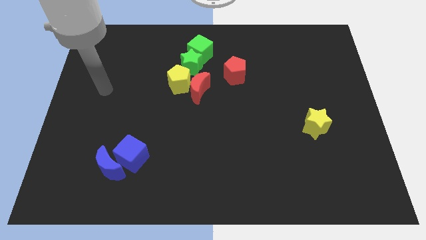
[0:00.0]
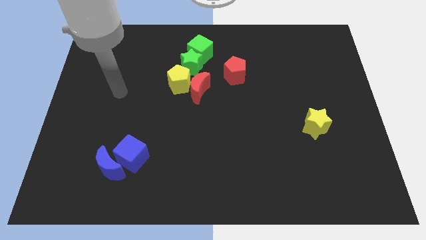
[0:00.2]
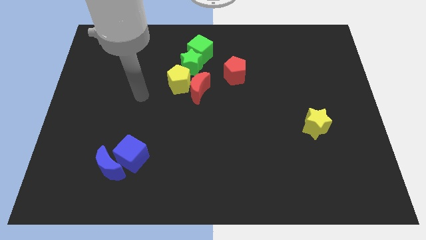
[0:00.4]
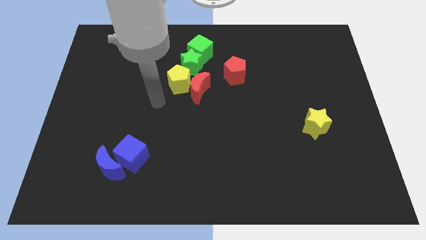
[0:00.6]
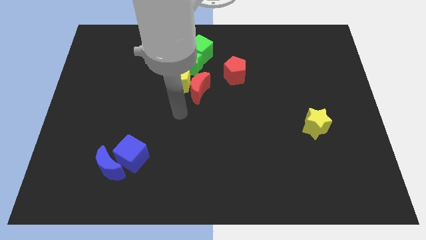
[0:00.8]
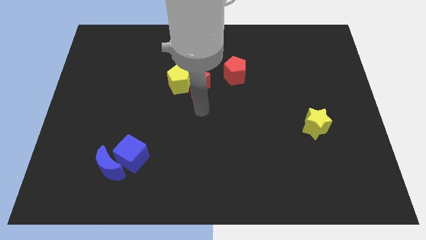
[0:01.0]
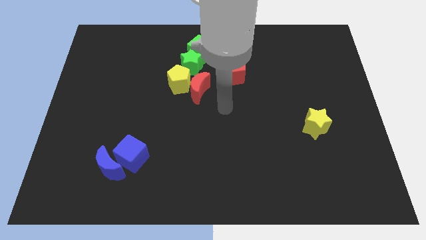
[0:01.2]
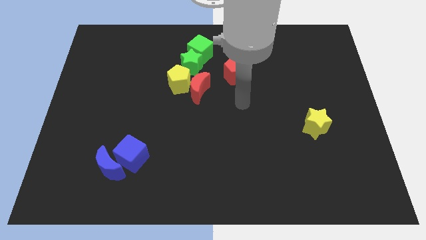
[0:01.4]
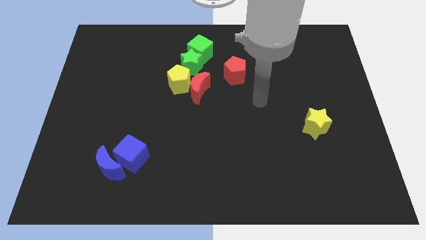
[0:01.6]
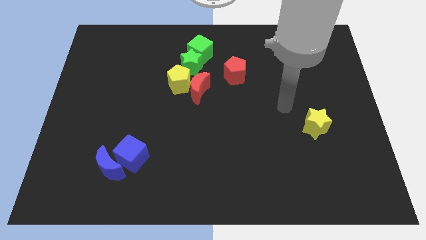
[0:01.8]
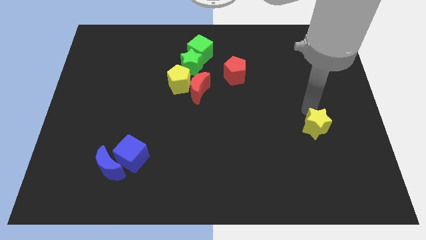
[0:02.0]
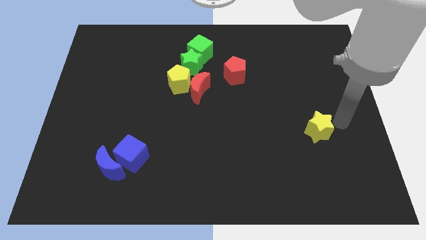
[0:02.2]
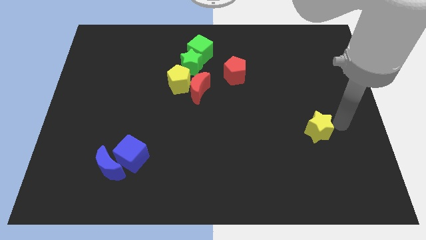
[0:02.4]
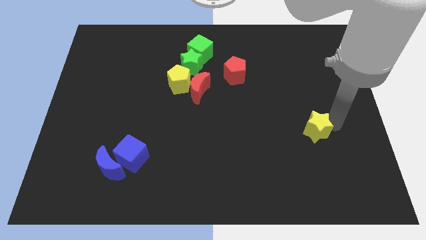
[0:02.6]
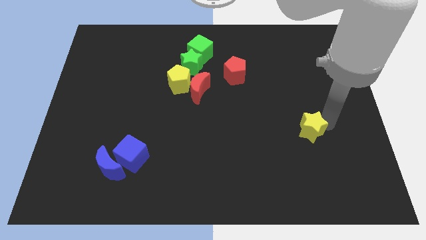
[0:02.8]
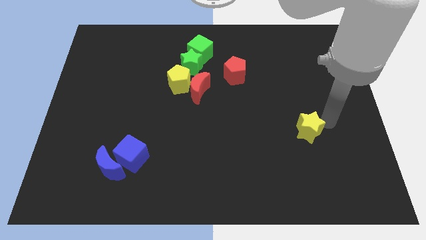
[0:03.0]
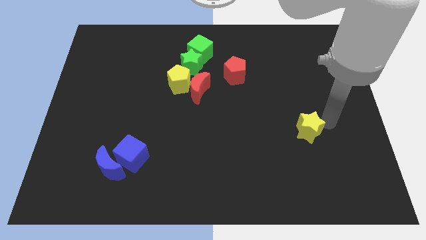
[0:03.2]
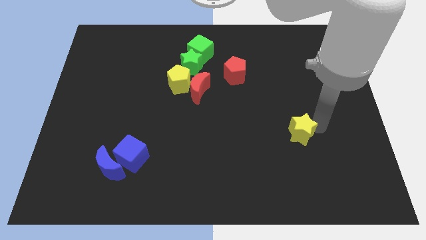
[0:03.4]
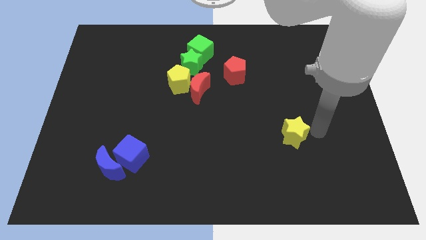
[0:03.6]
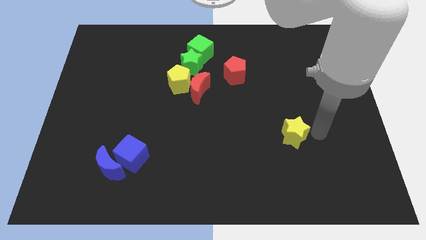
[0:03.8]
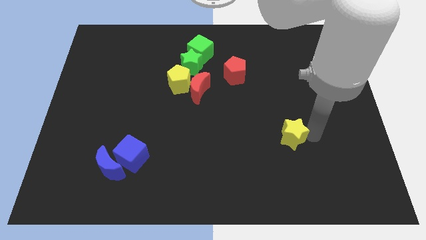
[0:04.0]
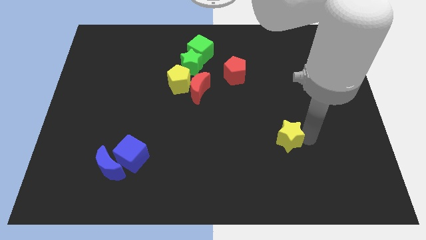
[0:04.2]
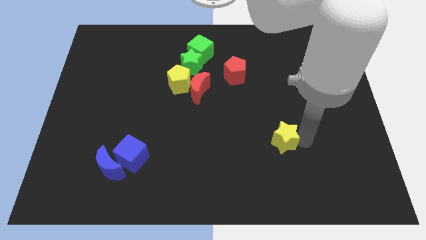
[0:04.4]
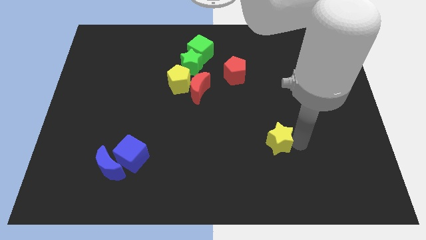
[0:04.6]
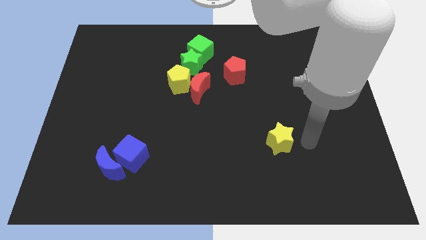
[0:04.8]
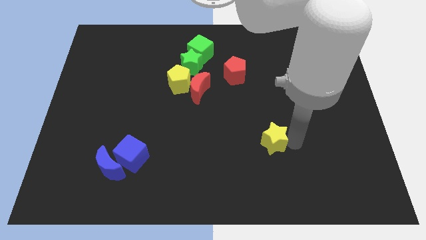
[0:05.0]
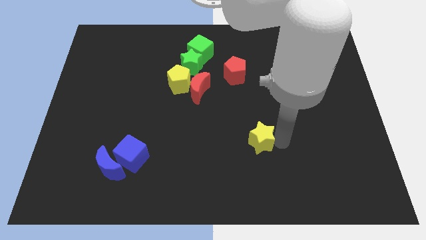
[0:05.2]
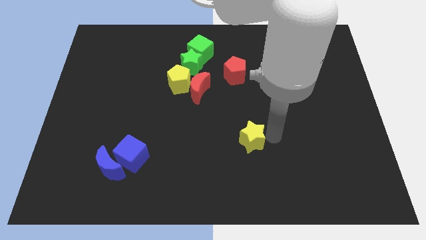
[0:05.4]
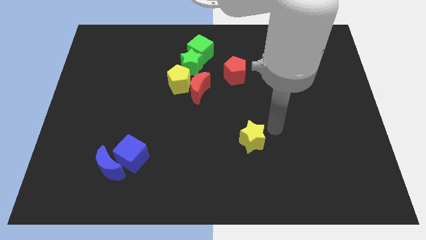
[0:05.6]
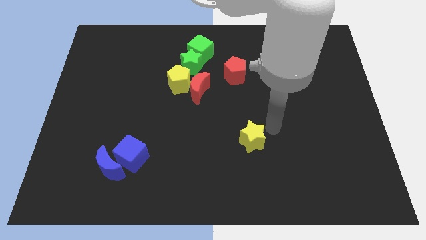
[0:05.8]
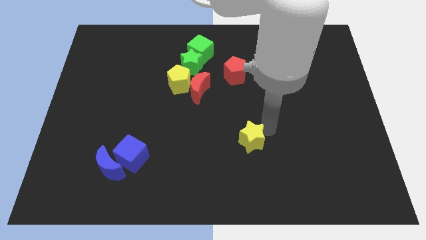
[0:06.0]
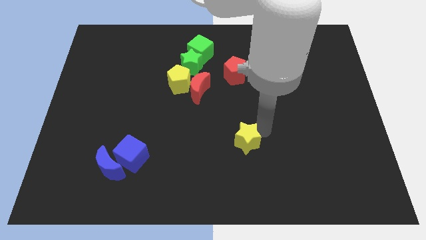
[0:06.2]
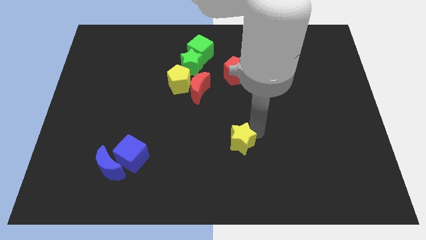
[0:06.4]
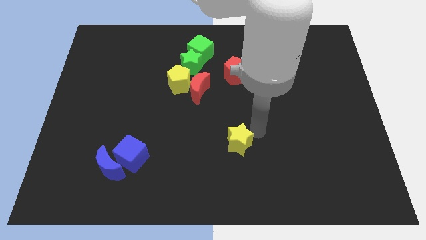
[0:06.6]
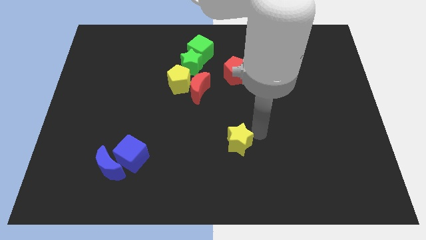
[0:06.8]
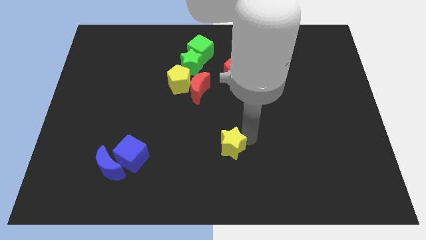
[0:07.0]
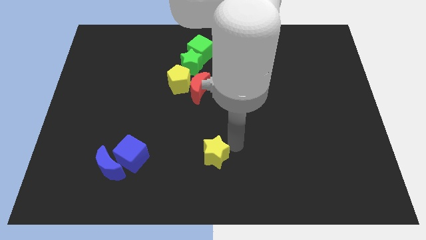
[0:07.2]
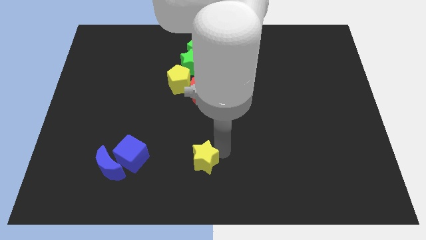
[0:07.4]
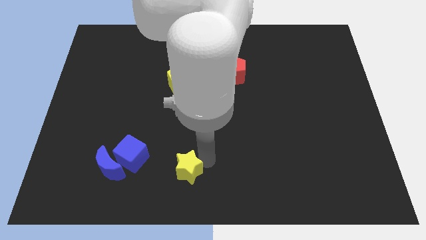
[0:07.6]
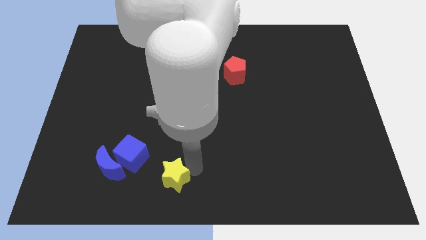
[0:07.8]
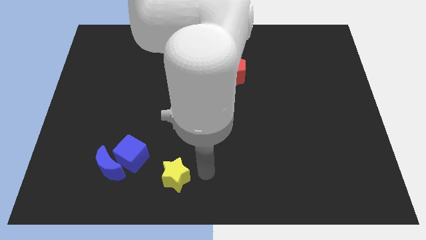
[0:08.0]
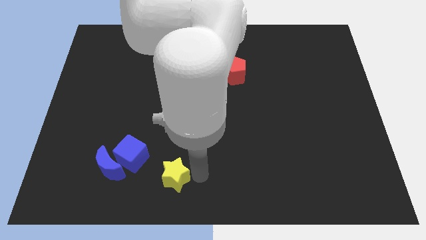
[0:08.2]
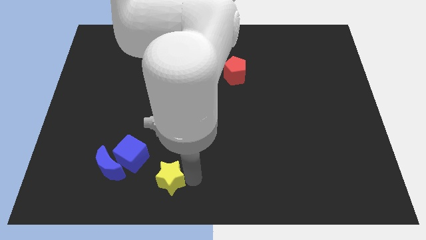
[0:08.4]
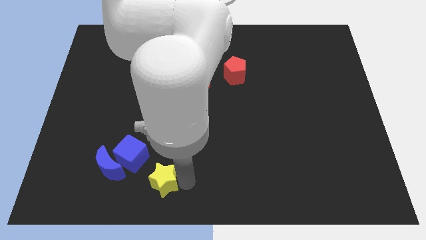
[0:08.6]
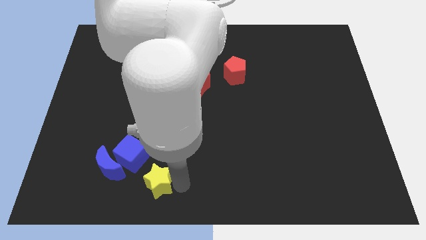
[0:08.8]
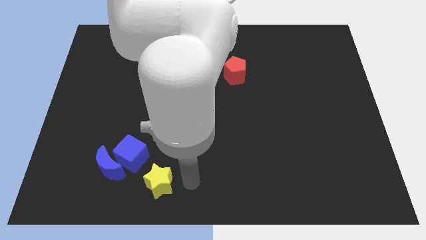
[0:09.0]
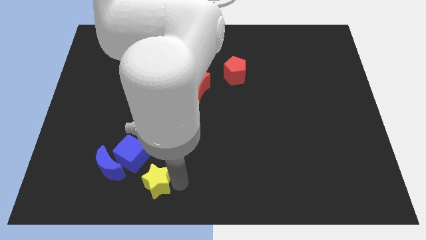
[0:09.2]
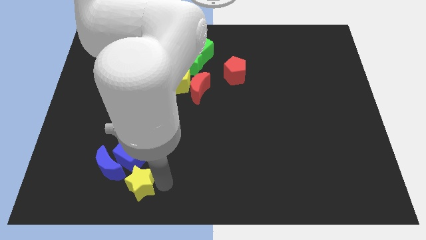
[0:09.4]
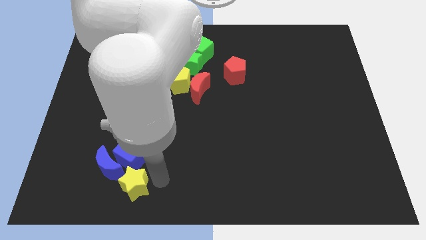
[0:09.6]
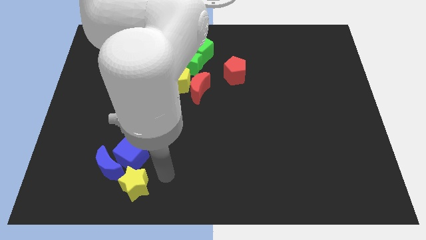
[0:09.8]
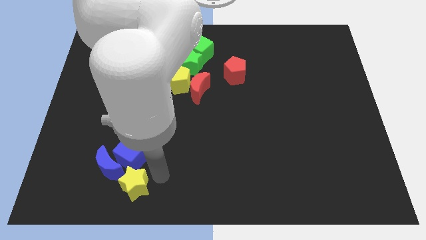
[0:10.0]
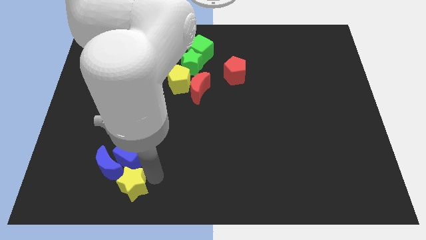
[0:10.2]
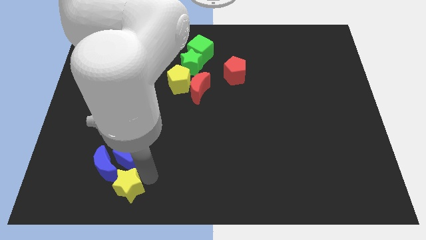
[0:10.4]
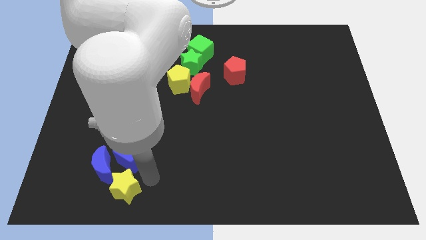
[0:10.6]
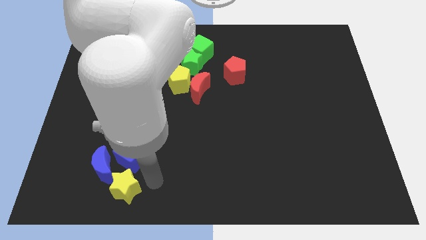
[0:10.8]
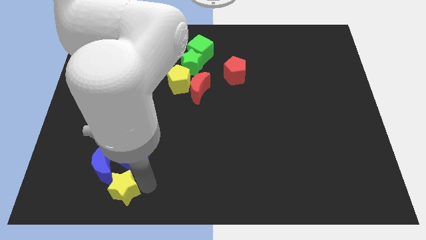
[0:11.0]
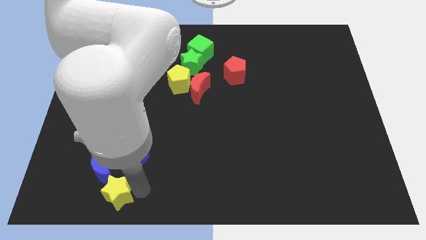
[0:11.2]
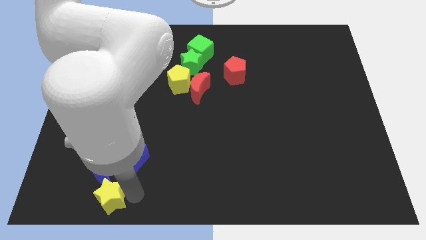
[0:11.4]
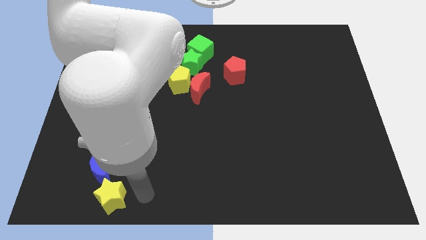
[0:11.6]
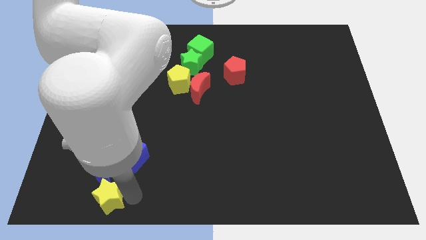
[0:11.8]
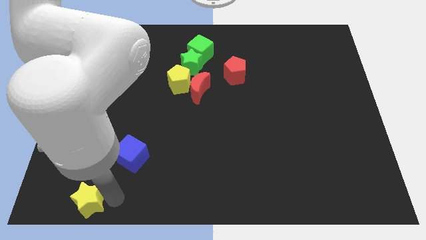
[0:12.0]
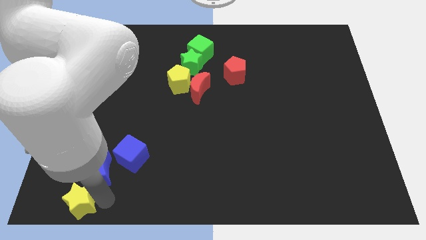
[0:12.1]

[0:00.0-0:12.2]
push the yellow star to the bottom left corner
